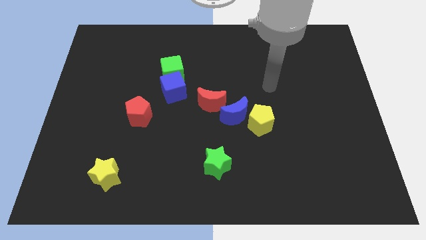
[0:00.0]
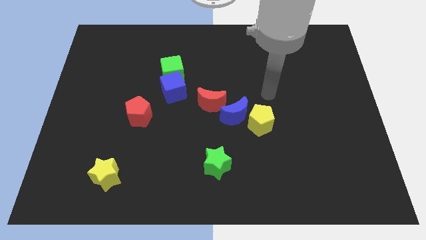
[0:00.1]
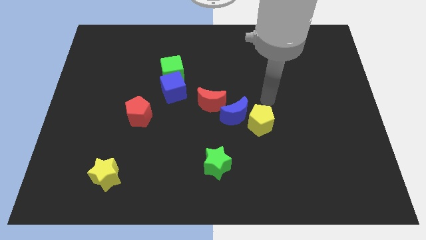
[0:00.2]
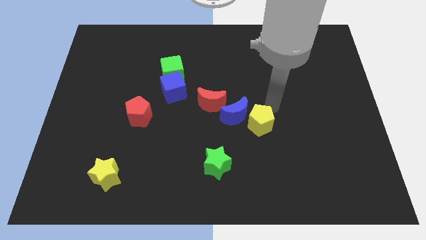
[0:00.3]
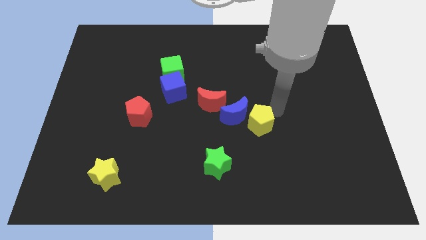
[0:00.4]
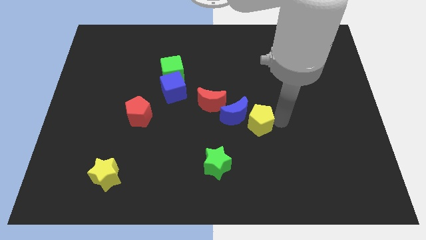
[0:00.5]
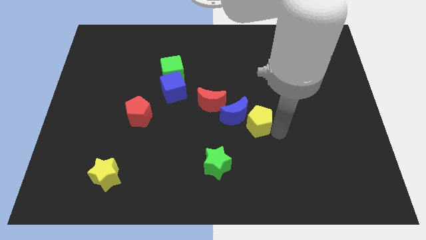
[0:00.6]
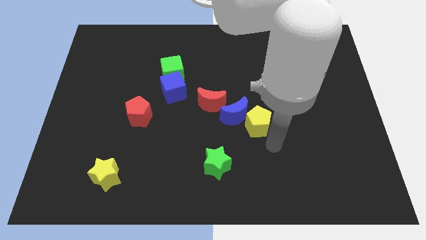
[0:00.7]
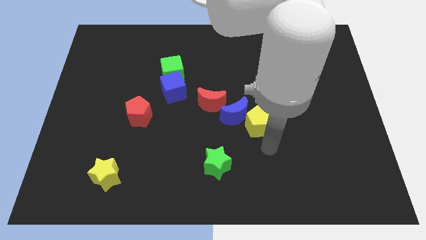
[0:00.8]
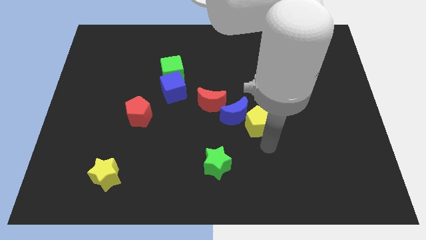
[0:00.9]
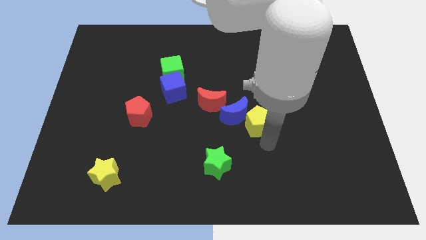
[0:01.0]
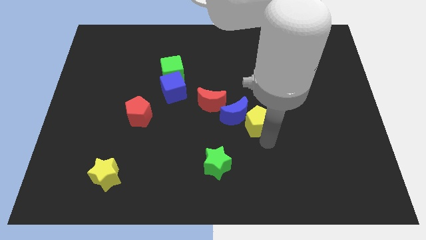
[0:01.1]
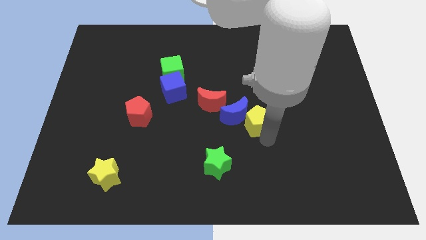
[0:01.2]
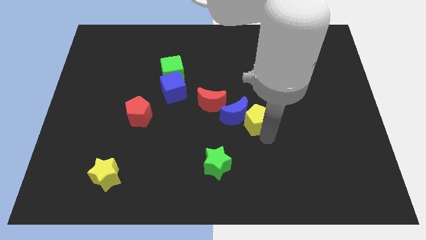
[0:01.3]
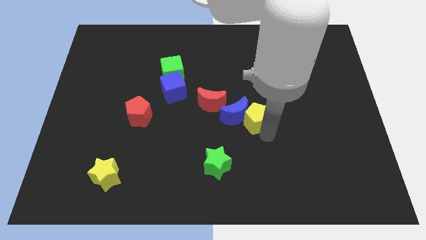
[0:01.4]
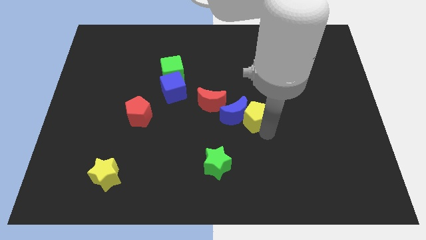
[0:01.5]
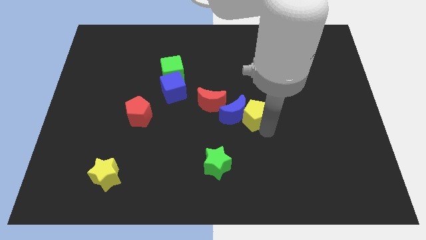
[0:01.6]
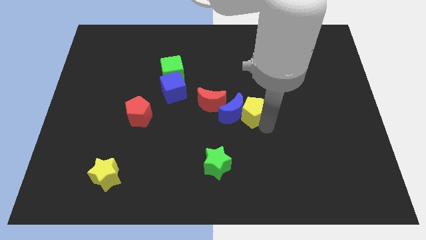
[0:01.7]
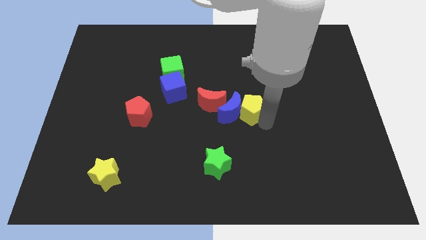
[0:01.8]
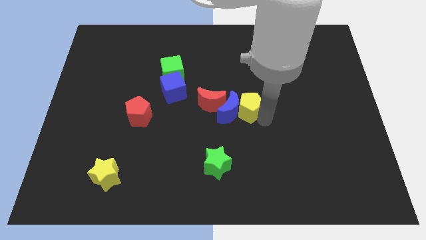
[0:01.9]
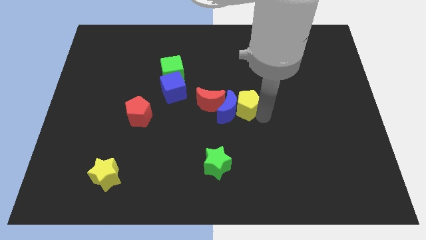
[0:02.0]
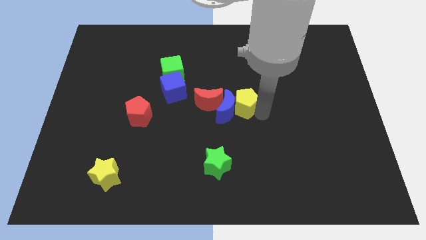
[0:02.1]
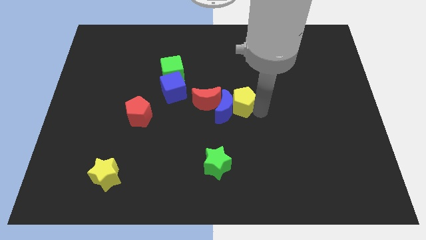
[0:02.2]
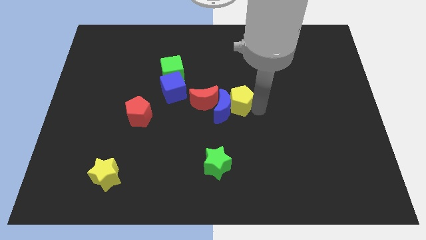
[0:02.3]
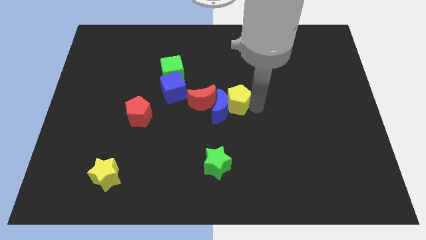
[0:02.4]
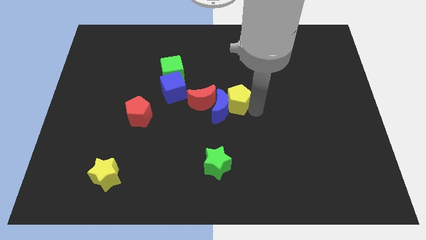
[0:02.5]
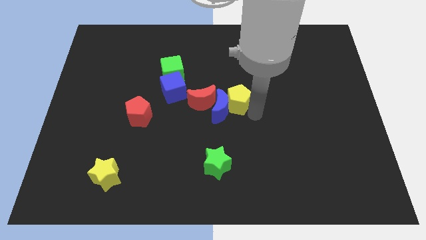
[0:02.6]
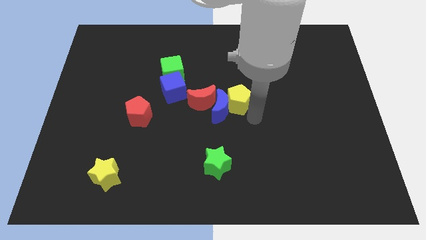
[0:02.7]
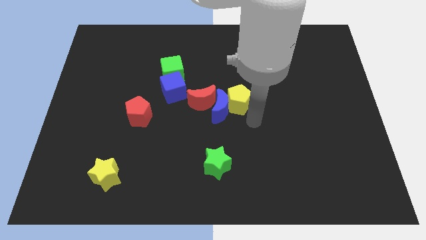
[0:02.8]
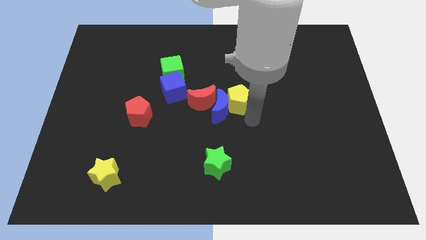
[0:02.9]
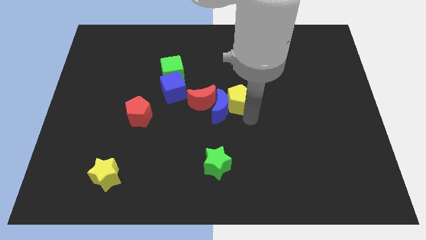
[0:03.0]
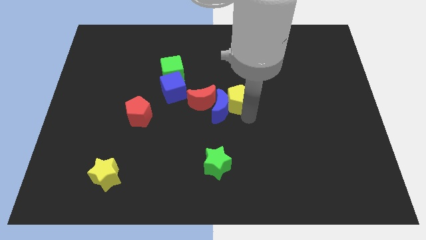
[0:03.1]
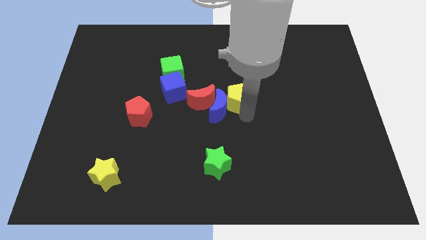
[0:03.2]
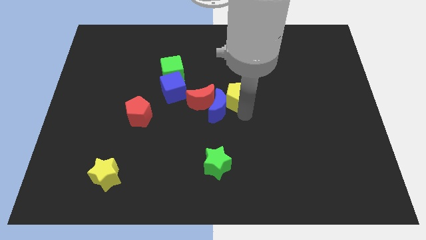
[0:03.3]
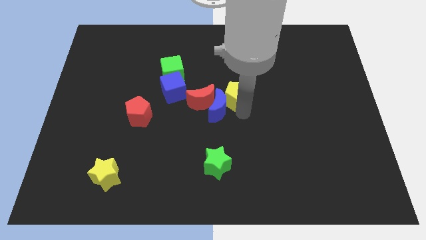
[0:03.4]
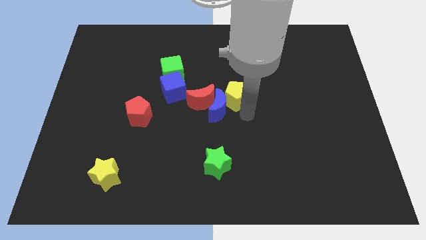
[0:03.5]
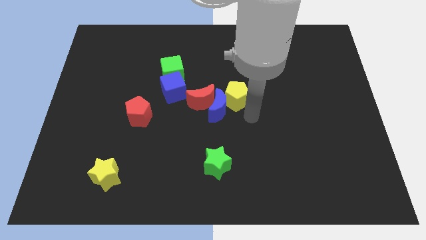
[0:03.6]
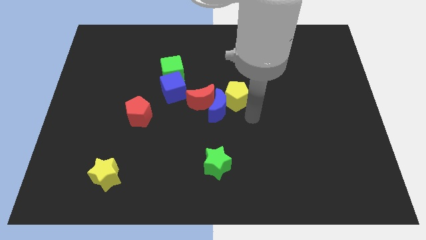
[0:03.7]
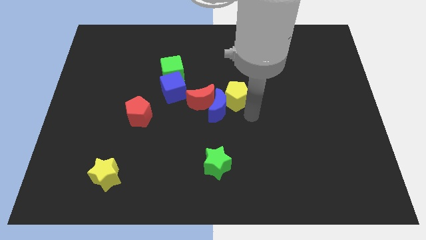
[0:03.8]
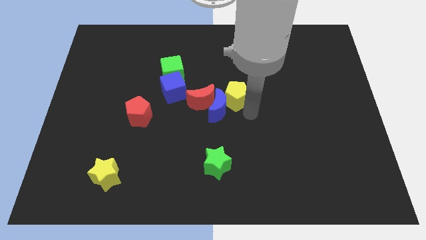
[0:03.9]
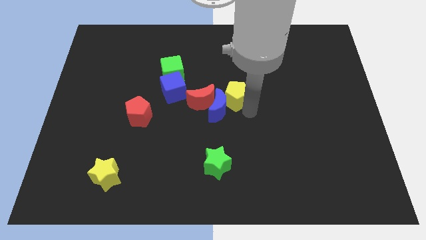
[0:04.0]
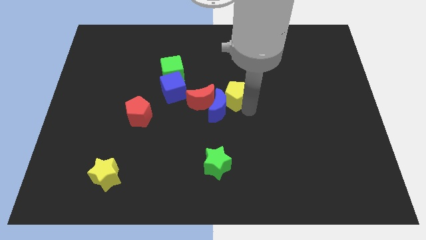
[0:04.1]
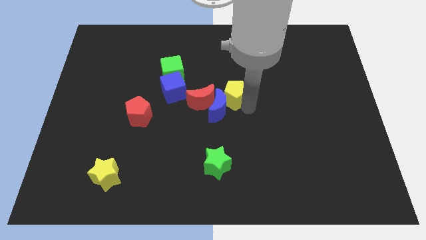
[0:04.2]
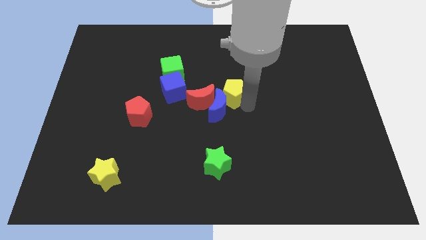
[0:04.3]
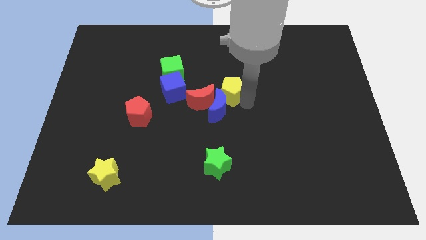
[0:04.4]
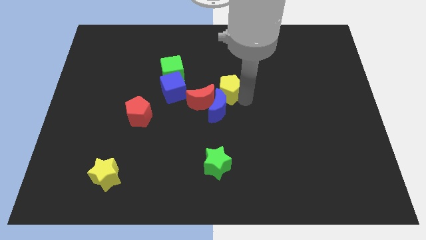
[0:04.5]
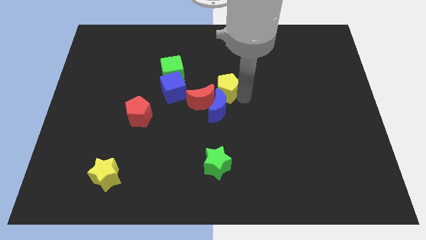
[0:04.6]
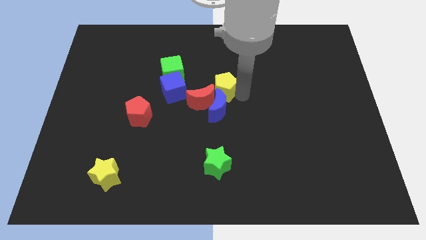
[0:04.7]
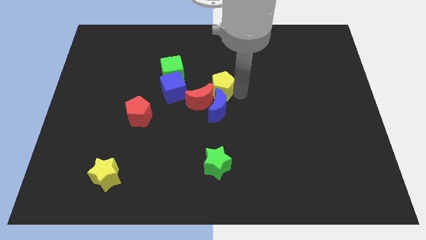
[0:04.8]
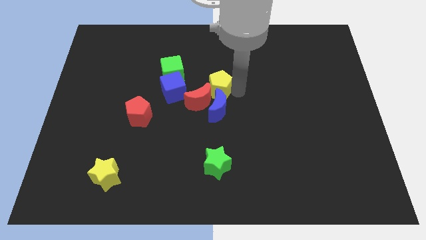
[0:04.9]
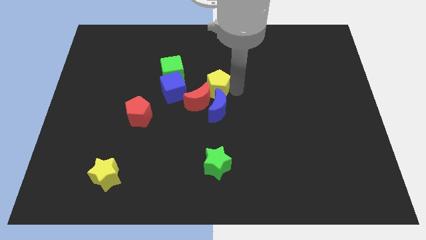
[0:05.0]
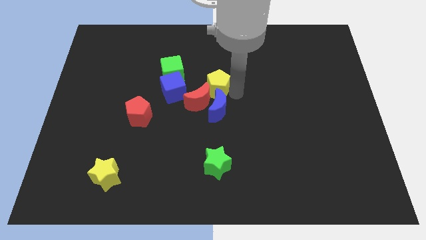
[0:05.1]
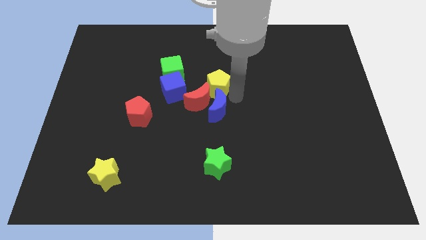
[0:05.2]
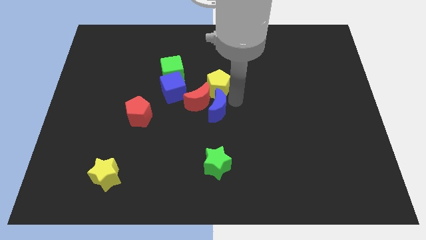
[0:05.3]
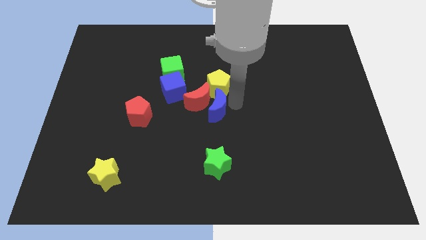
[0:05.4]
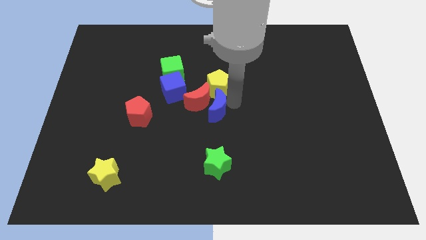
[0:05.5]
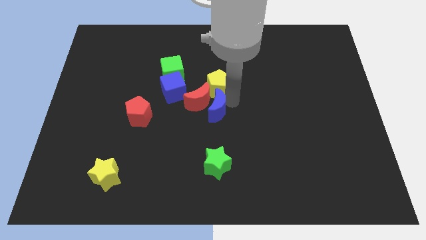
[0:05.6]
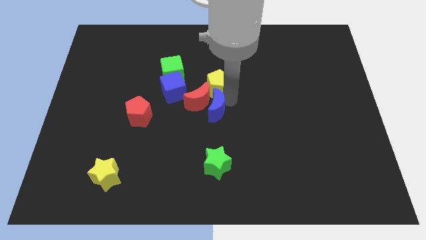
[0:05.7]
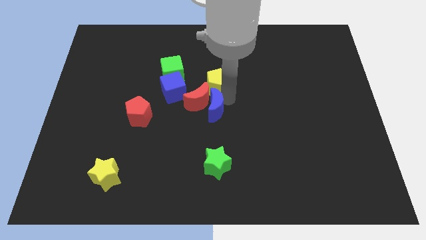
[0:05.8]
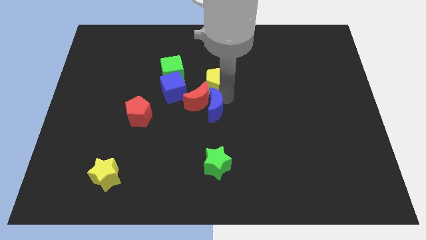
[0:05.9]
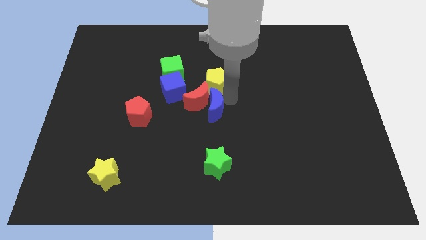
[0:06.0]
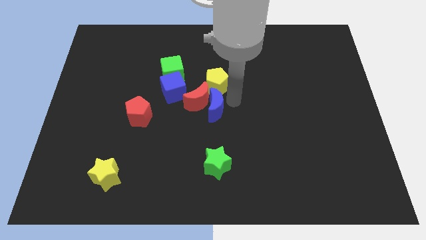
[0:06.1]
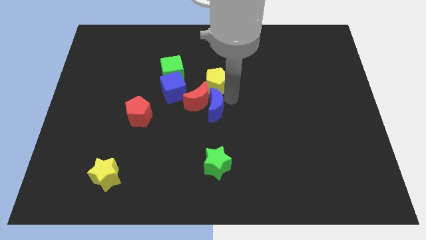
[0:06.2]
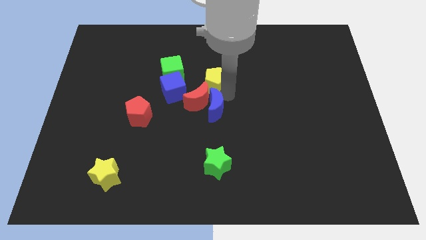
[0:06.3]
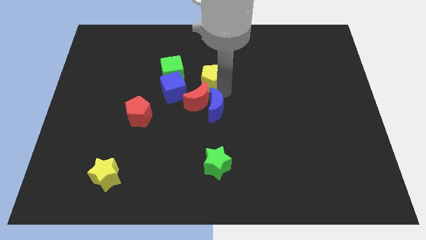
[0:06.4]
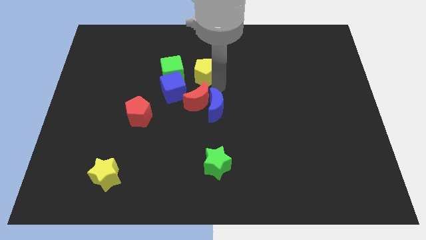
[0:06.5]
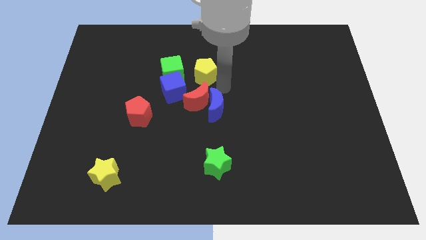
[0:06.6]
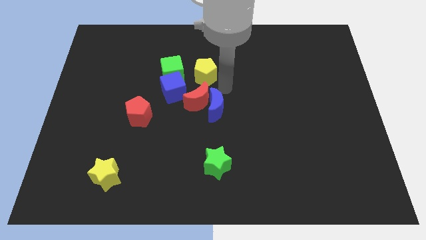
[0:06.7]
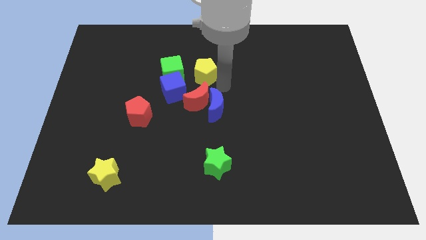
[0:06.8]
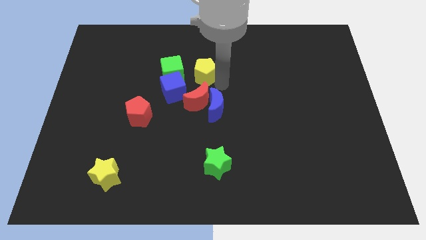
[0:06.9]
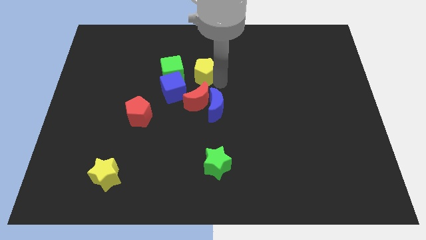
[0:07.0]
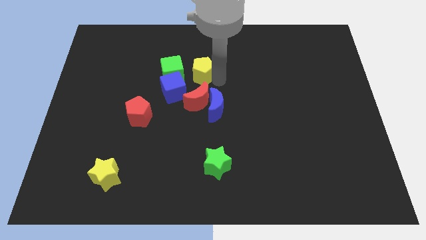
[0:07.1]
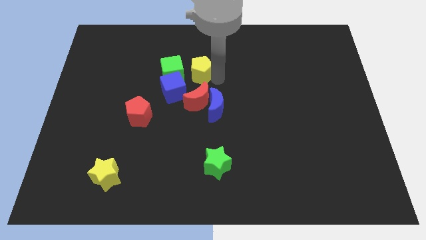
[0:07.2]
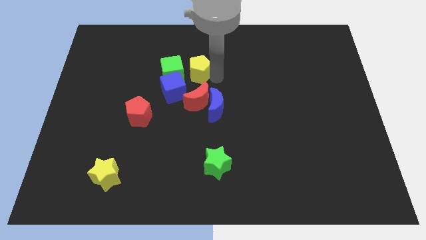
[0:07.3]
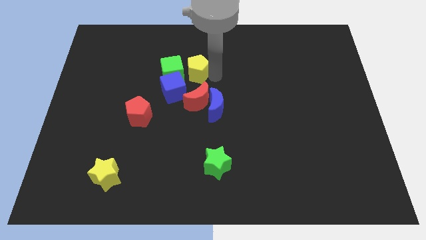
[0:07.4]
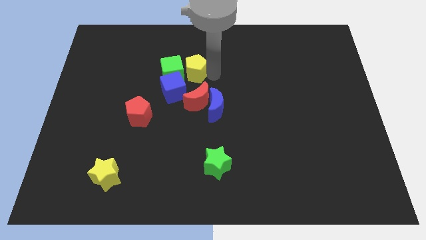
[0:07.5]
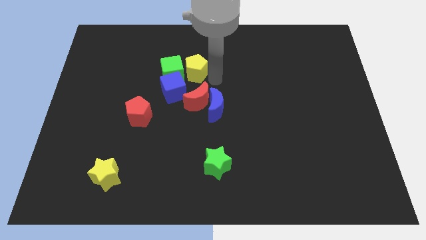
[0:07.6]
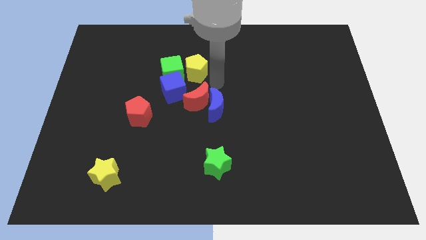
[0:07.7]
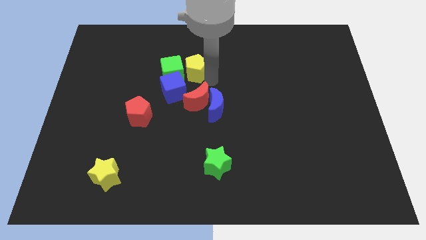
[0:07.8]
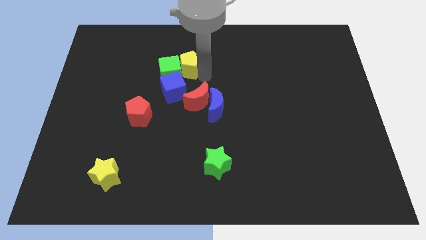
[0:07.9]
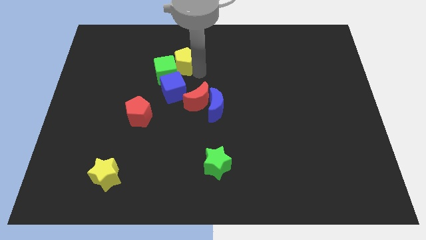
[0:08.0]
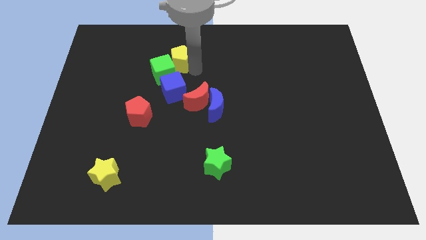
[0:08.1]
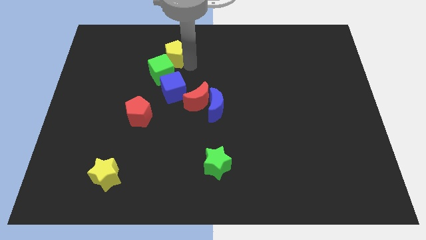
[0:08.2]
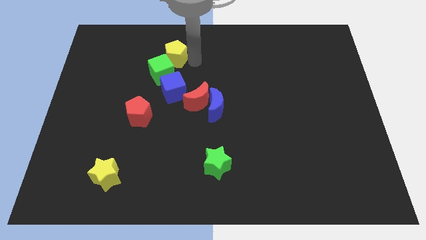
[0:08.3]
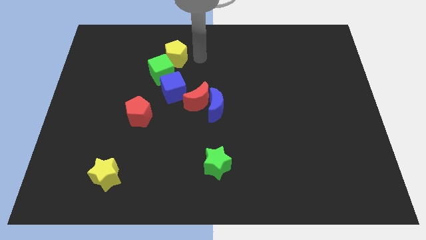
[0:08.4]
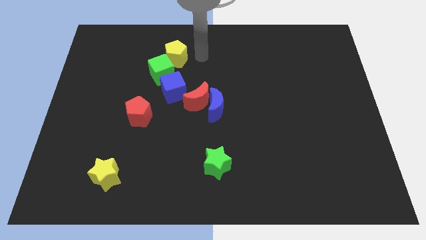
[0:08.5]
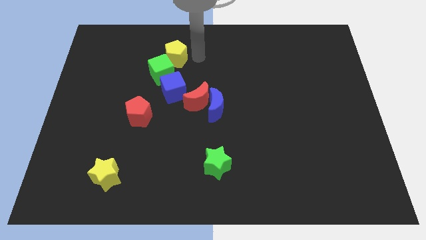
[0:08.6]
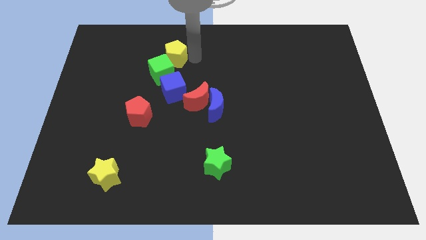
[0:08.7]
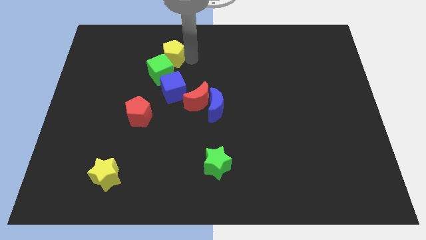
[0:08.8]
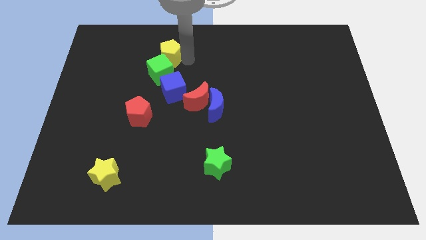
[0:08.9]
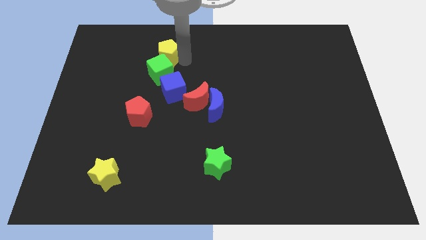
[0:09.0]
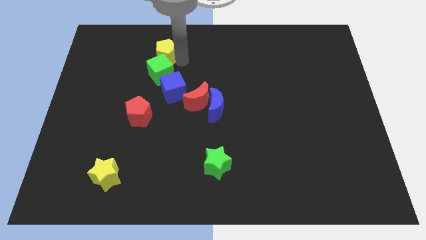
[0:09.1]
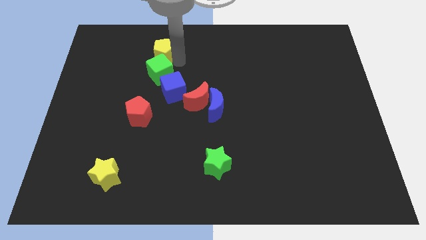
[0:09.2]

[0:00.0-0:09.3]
put the yellow pentagon diagonally up and to the left of the green cube
